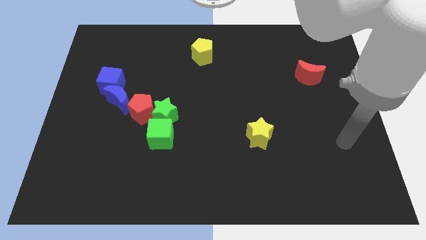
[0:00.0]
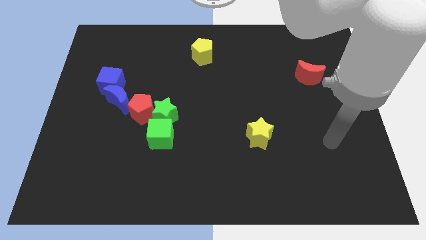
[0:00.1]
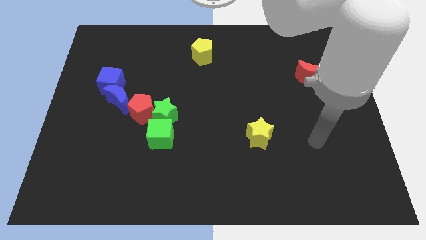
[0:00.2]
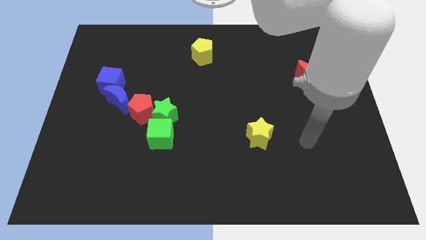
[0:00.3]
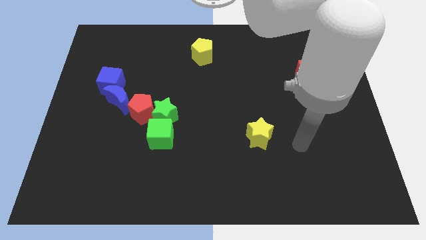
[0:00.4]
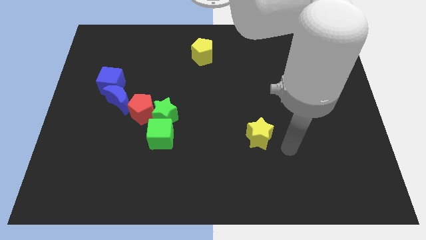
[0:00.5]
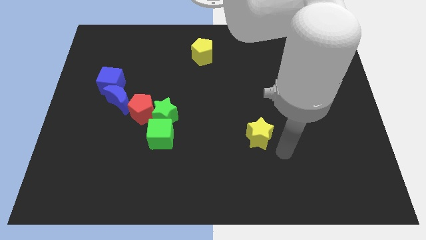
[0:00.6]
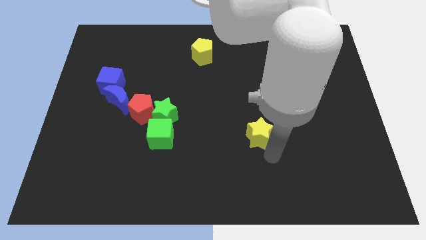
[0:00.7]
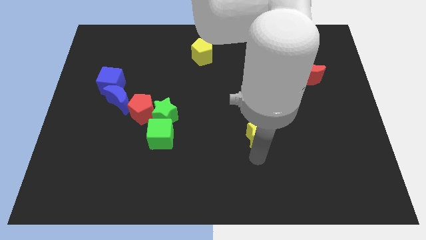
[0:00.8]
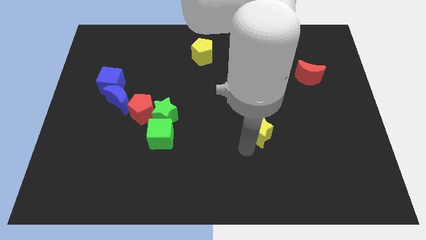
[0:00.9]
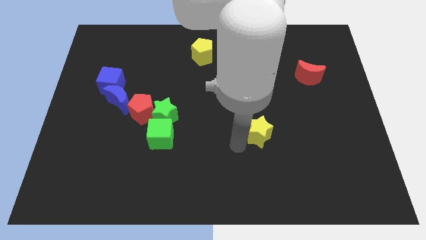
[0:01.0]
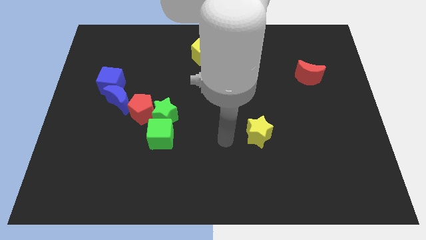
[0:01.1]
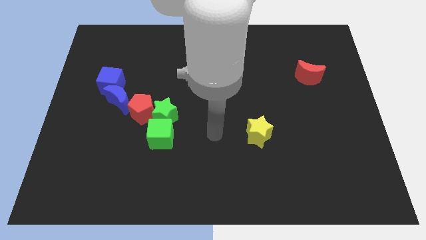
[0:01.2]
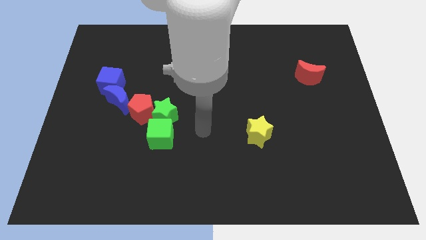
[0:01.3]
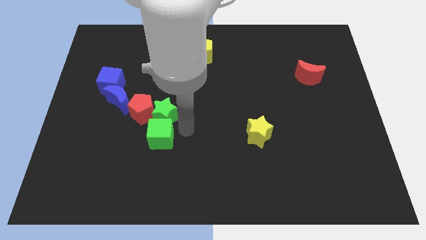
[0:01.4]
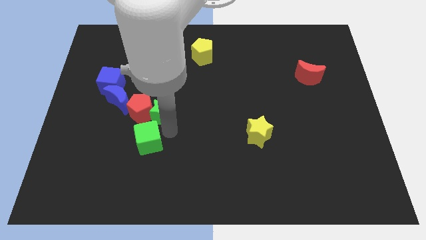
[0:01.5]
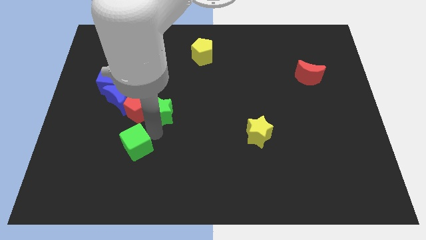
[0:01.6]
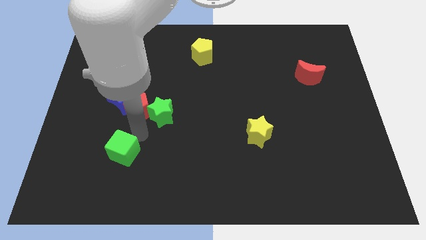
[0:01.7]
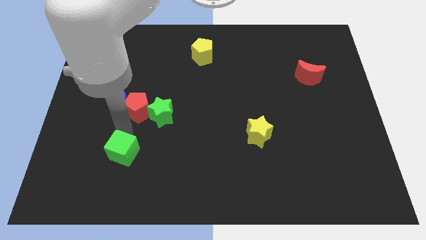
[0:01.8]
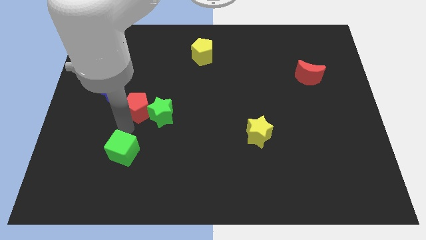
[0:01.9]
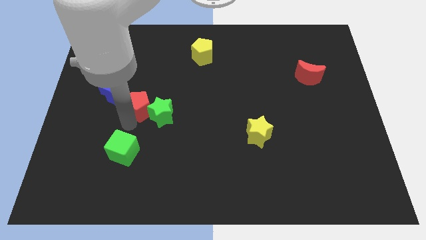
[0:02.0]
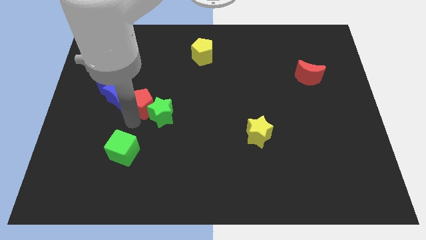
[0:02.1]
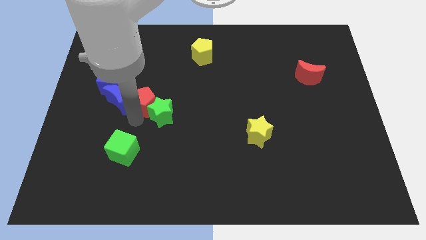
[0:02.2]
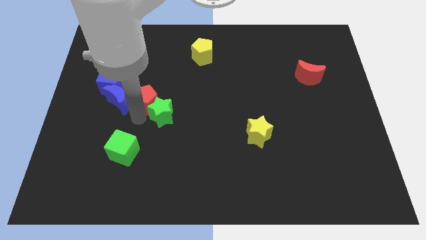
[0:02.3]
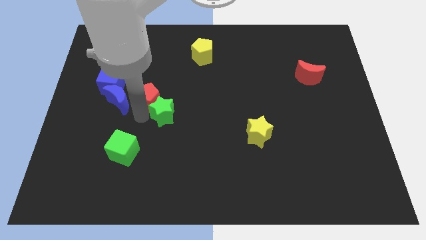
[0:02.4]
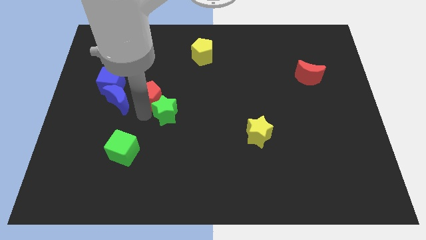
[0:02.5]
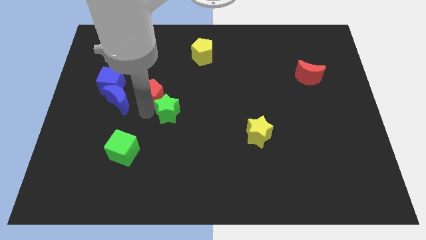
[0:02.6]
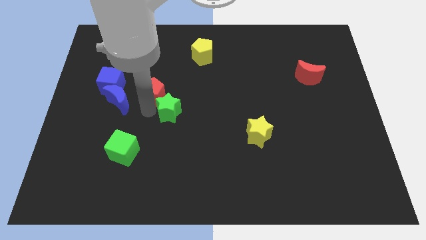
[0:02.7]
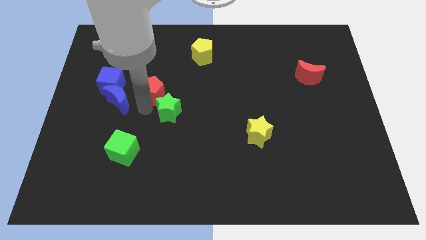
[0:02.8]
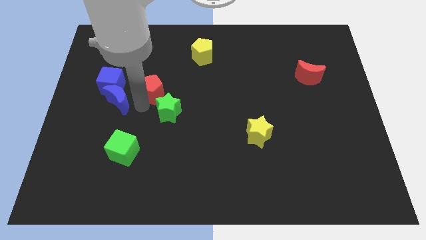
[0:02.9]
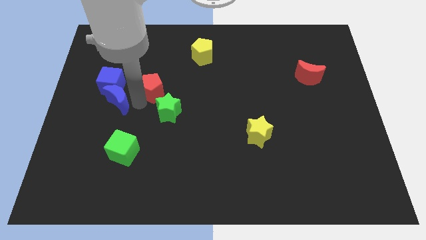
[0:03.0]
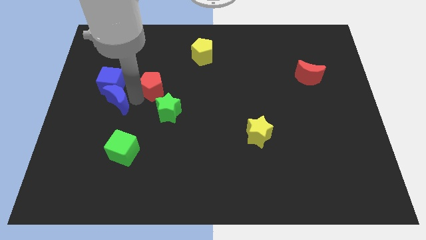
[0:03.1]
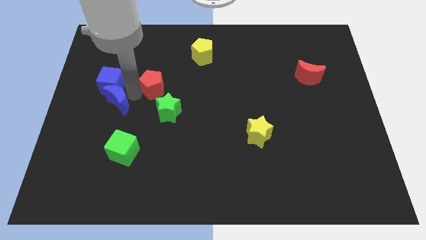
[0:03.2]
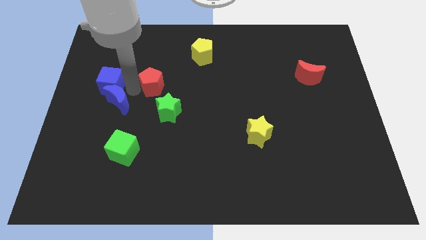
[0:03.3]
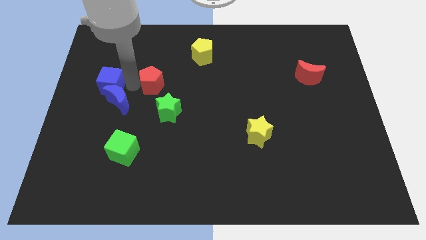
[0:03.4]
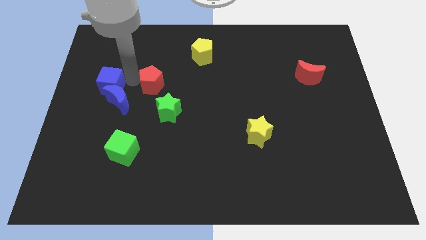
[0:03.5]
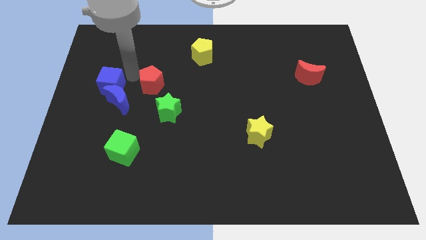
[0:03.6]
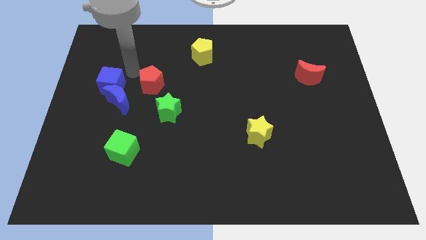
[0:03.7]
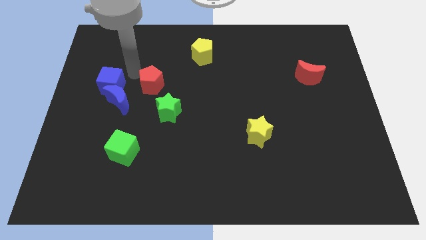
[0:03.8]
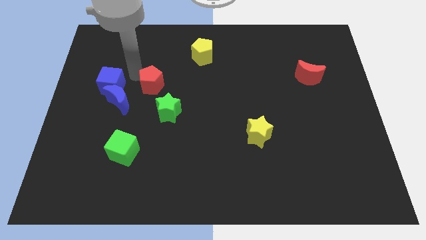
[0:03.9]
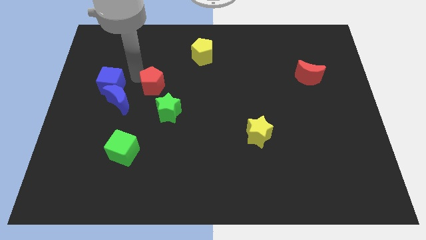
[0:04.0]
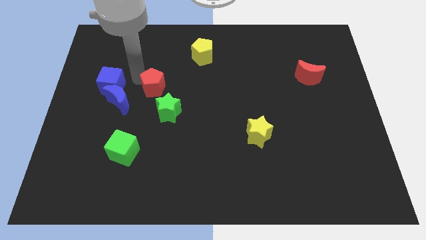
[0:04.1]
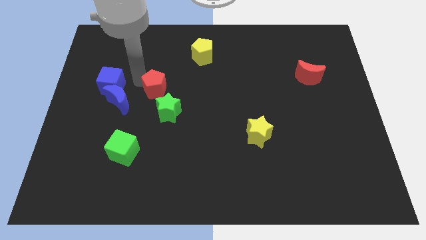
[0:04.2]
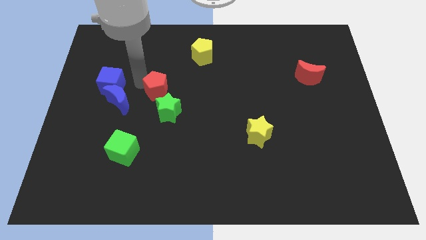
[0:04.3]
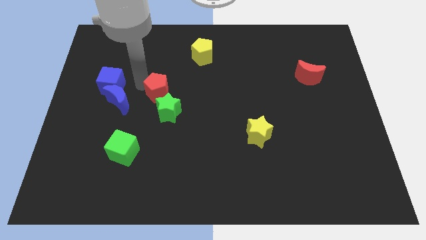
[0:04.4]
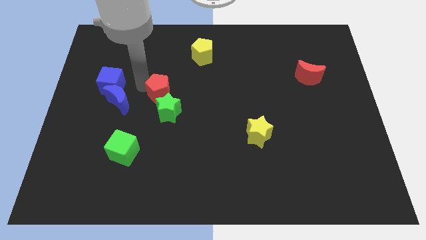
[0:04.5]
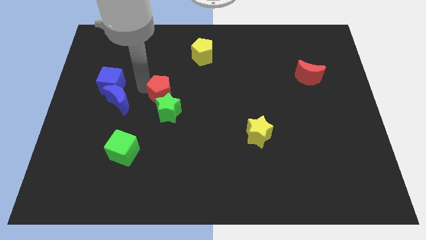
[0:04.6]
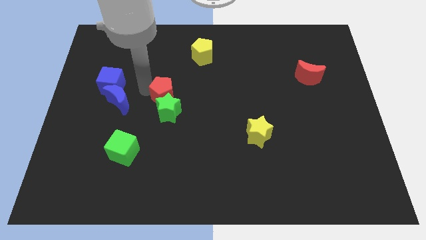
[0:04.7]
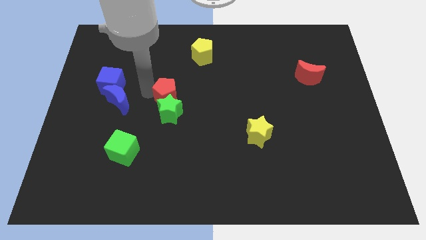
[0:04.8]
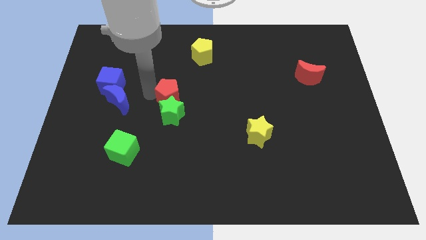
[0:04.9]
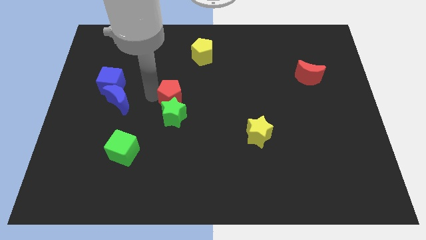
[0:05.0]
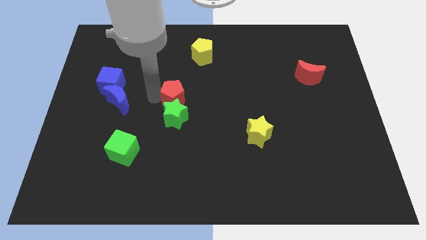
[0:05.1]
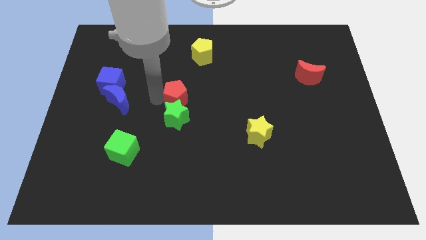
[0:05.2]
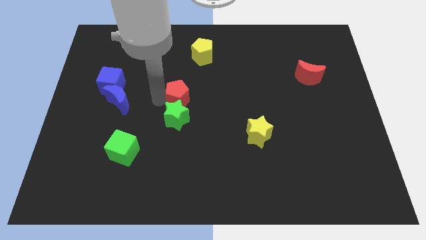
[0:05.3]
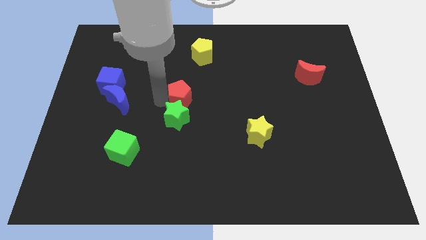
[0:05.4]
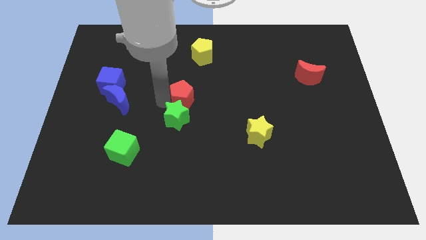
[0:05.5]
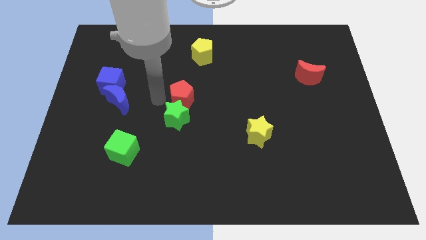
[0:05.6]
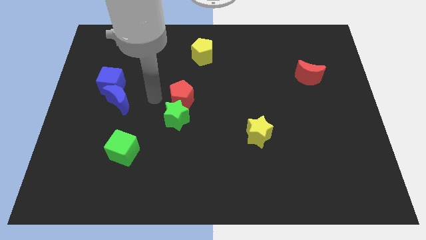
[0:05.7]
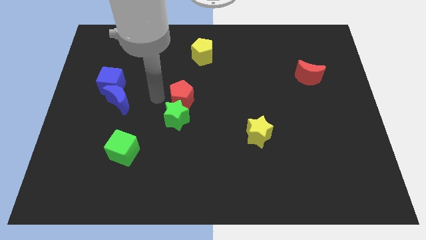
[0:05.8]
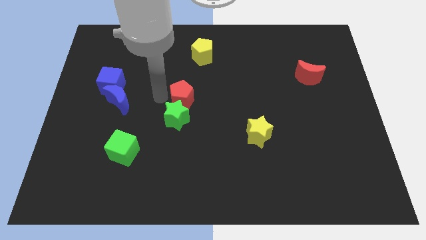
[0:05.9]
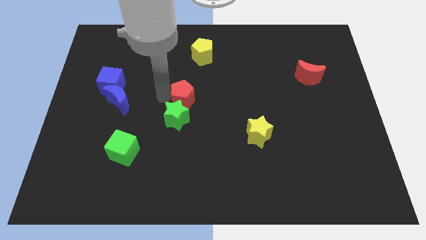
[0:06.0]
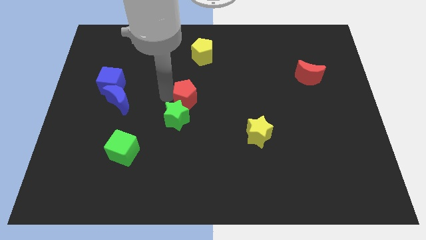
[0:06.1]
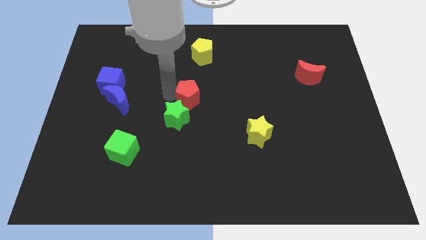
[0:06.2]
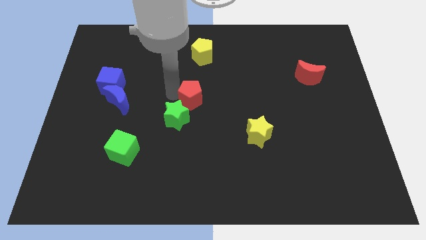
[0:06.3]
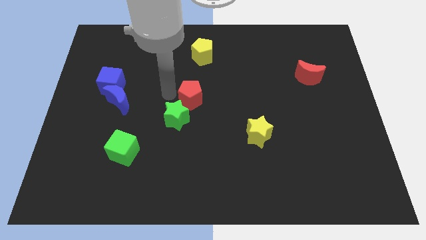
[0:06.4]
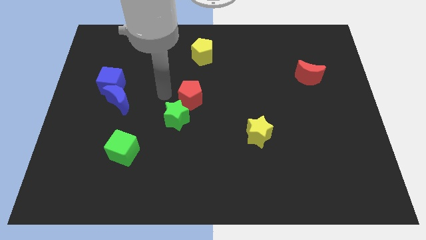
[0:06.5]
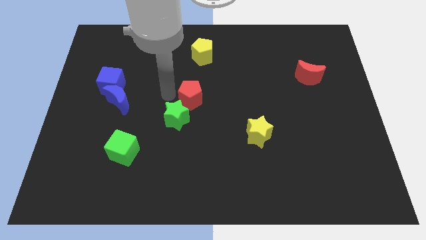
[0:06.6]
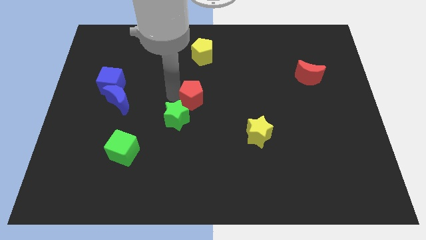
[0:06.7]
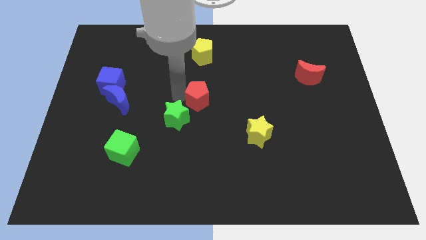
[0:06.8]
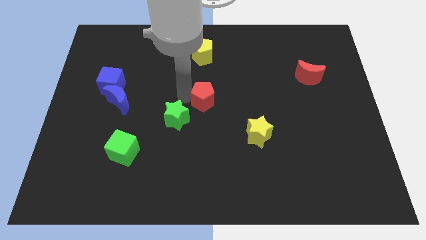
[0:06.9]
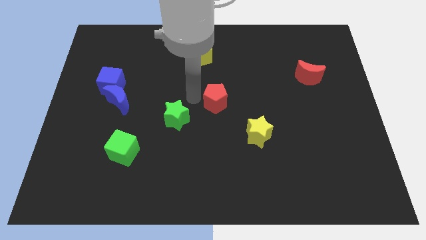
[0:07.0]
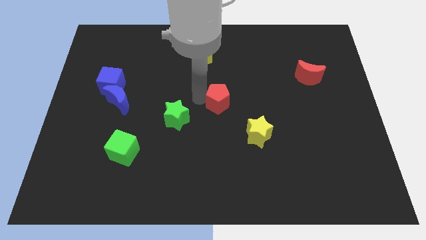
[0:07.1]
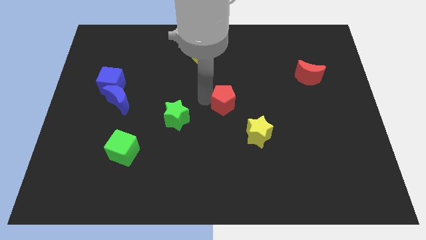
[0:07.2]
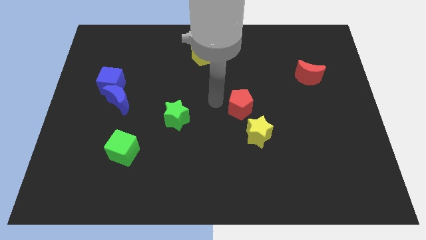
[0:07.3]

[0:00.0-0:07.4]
slide the red pentagon right

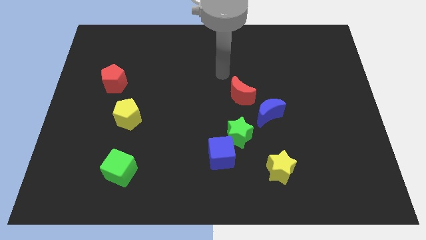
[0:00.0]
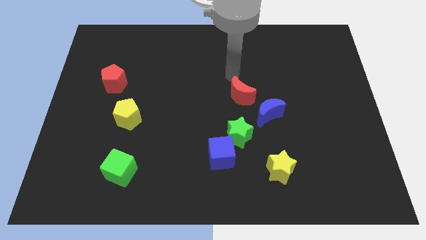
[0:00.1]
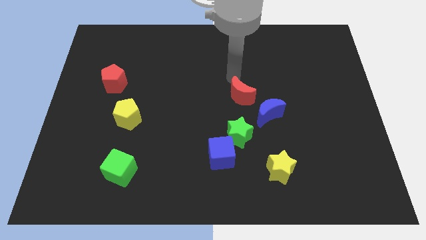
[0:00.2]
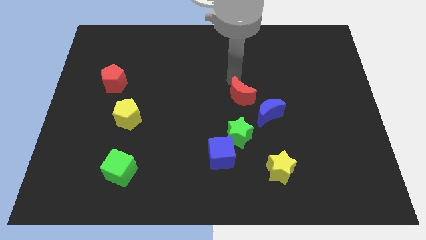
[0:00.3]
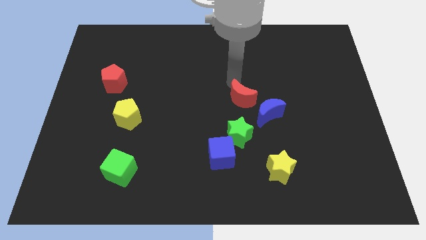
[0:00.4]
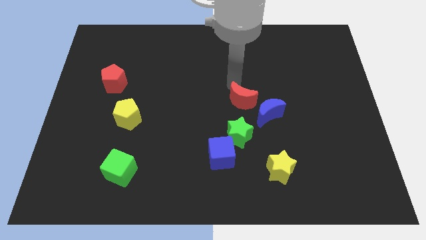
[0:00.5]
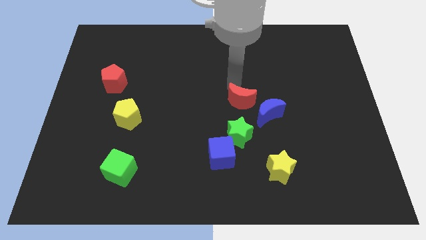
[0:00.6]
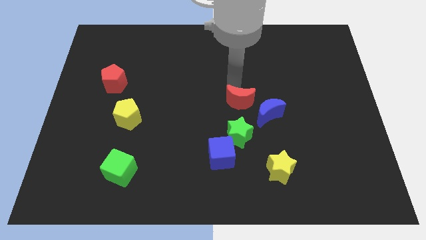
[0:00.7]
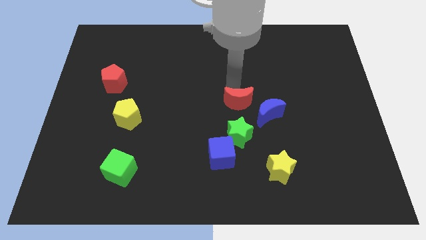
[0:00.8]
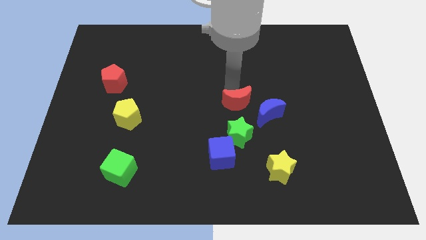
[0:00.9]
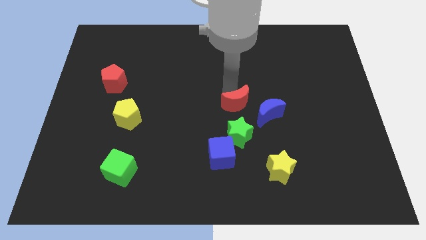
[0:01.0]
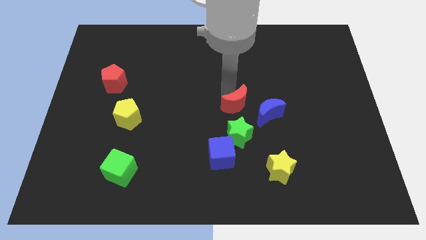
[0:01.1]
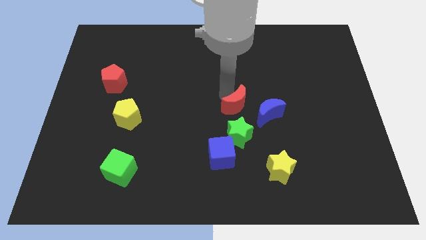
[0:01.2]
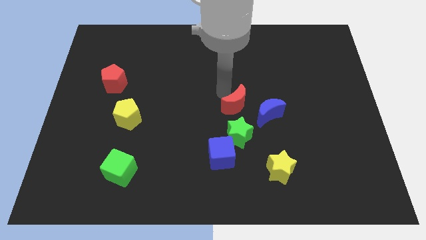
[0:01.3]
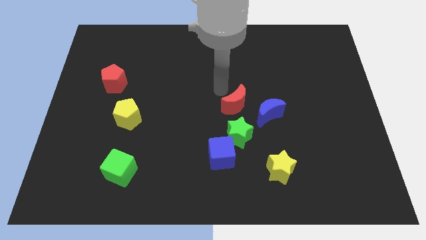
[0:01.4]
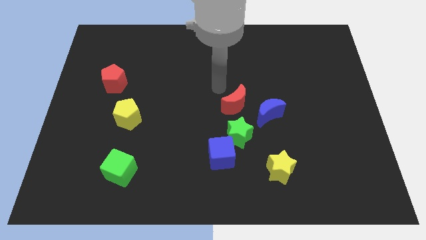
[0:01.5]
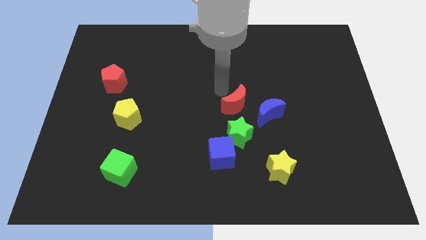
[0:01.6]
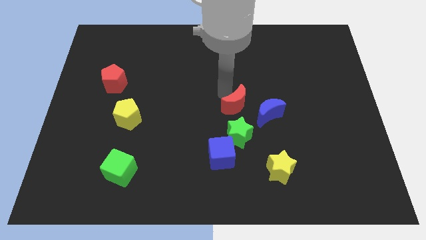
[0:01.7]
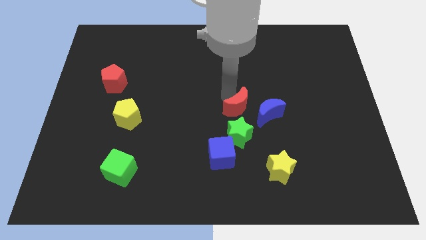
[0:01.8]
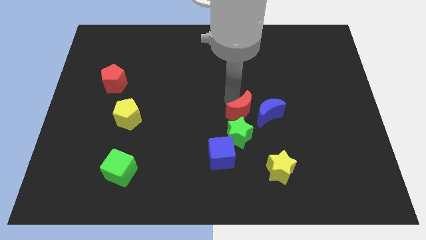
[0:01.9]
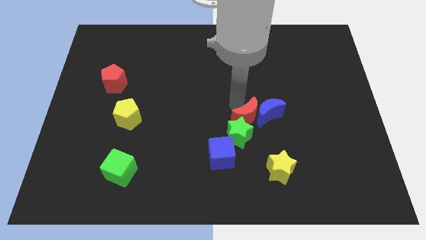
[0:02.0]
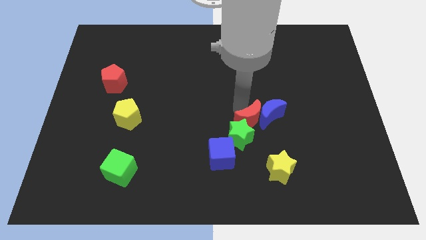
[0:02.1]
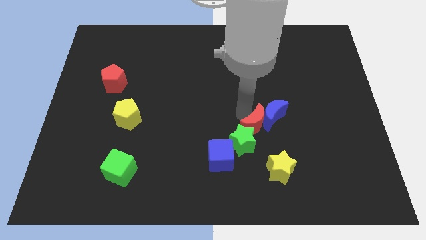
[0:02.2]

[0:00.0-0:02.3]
slightly move the red moon down and then right
